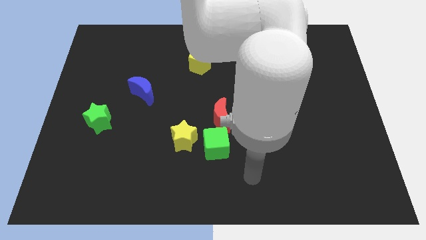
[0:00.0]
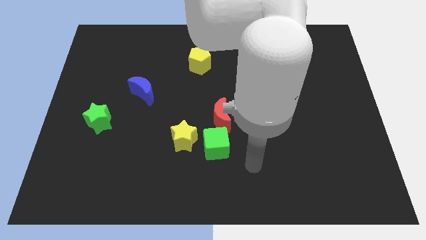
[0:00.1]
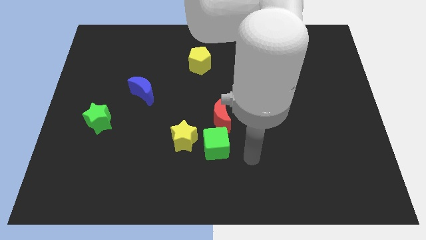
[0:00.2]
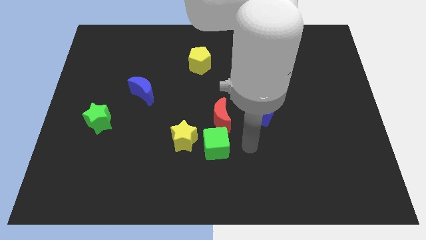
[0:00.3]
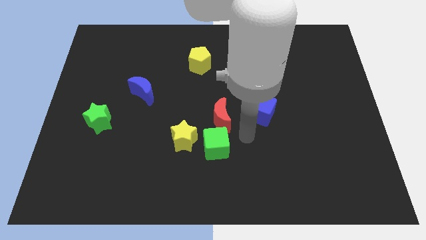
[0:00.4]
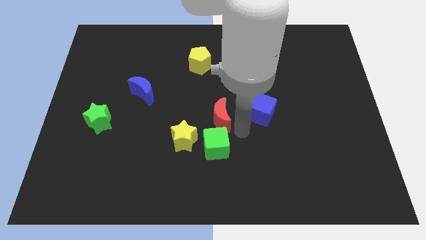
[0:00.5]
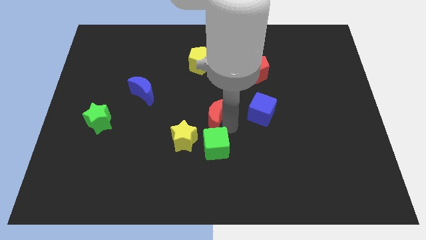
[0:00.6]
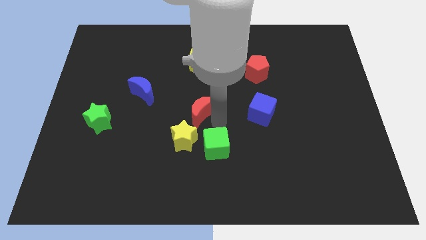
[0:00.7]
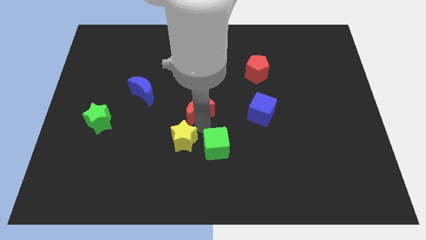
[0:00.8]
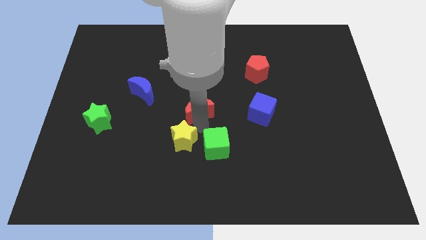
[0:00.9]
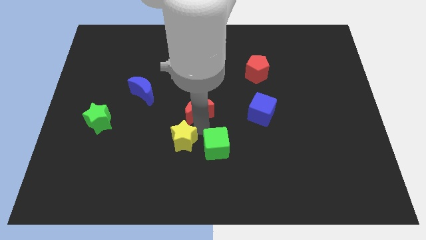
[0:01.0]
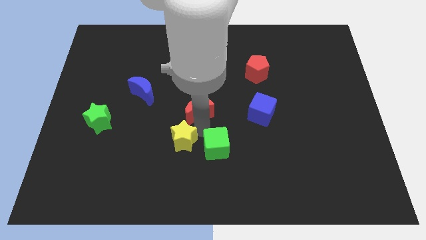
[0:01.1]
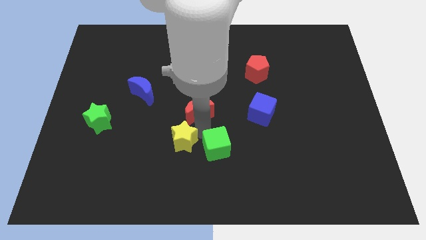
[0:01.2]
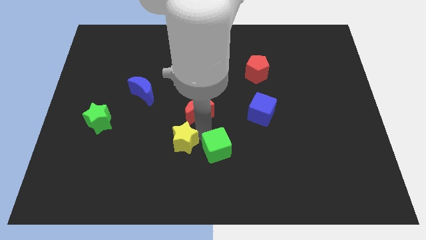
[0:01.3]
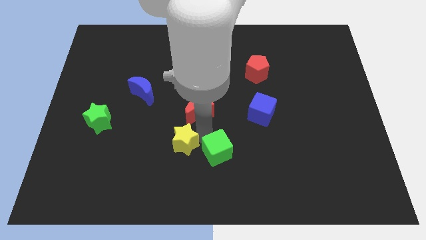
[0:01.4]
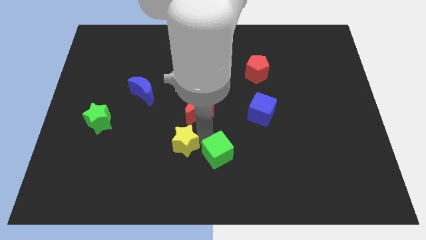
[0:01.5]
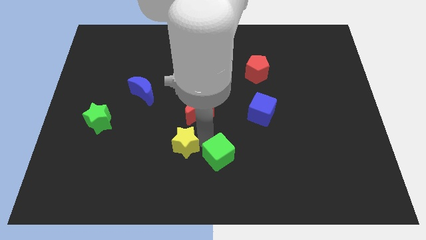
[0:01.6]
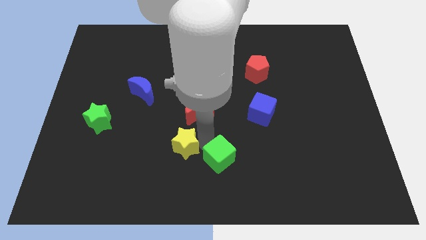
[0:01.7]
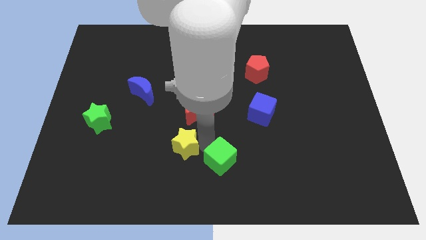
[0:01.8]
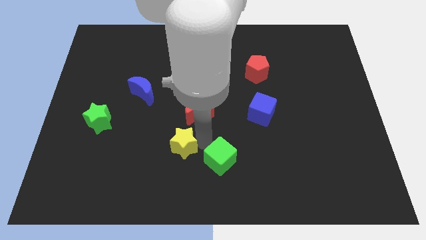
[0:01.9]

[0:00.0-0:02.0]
move the green cube away from the yellow star and red moon

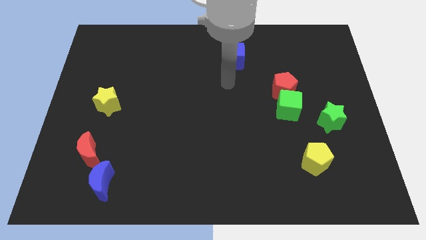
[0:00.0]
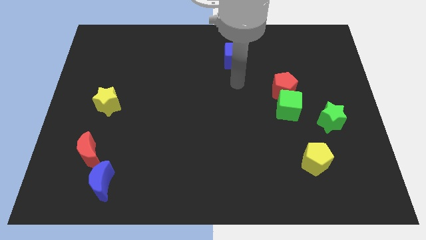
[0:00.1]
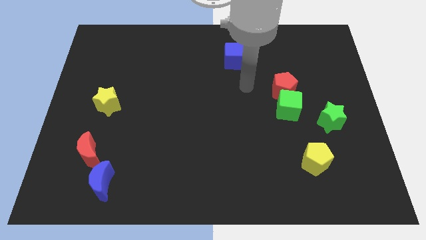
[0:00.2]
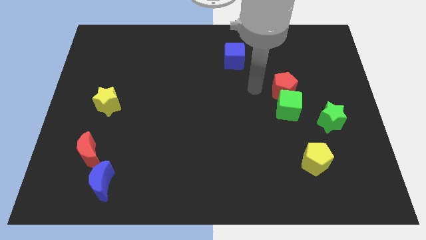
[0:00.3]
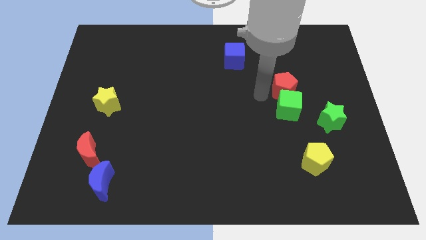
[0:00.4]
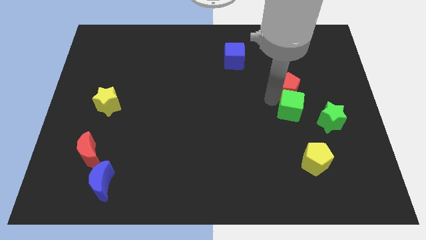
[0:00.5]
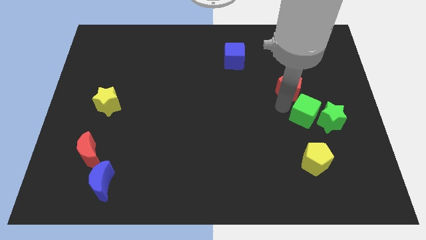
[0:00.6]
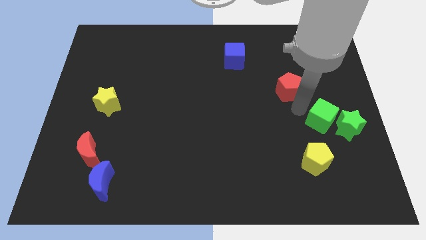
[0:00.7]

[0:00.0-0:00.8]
pull the red pentagon apart from the green cube

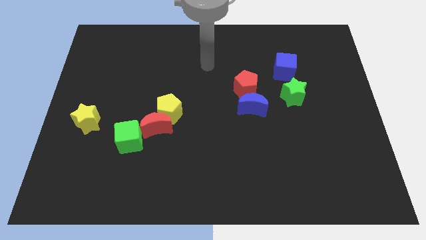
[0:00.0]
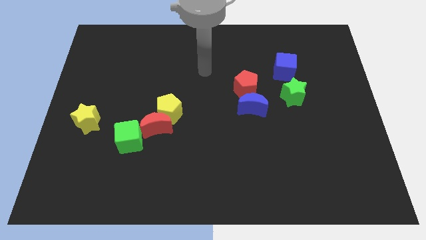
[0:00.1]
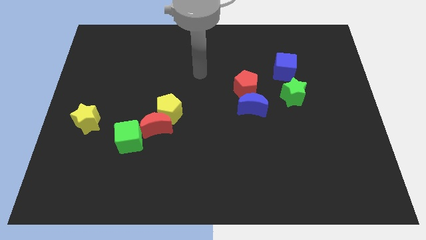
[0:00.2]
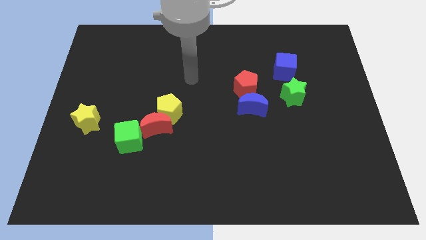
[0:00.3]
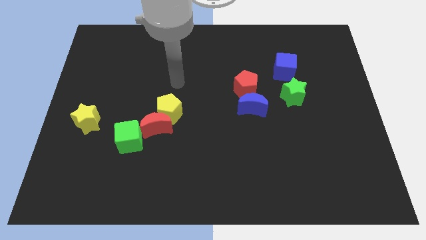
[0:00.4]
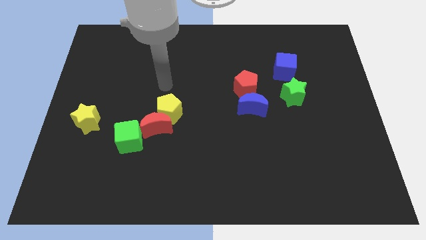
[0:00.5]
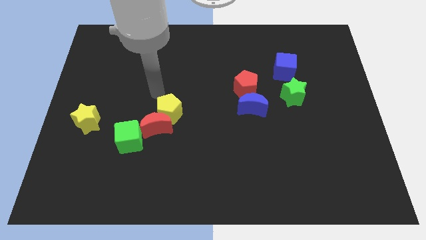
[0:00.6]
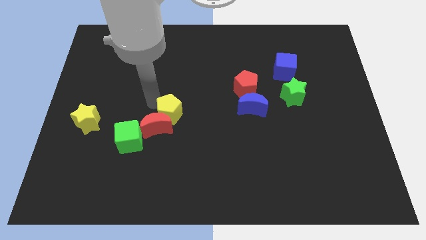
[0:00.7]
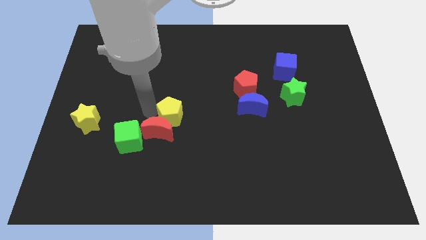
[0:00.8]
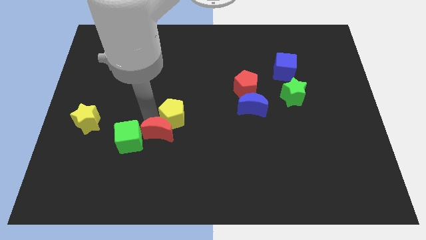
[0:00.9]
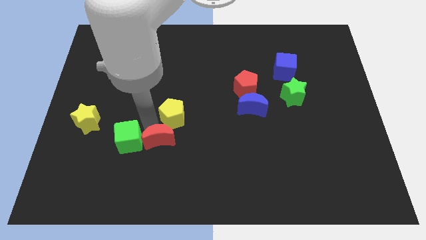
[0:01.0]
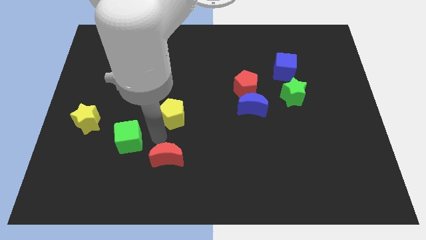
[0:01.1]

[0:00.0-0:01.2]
move the yellow pentagon away from the red moon

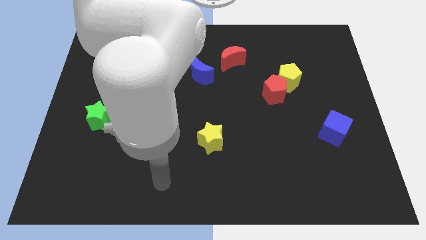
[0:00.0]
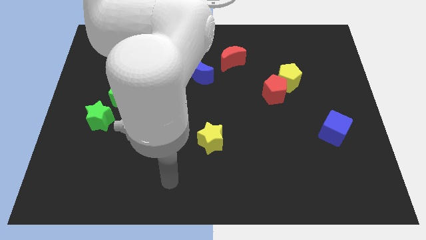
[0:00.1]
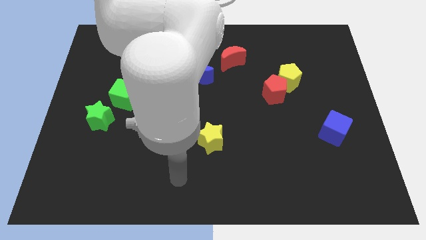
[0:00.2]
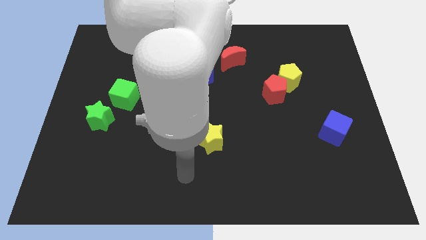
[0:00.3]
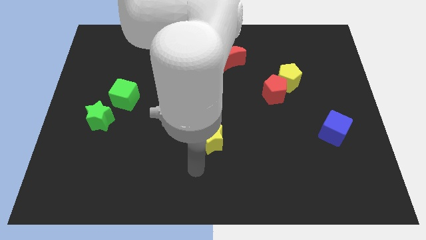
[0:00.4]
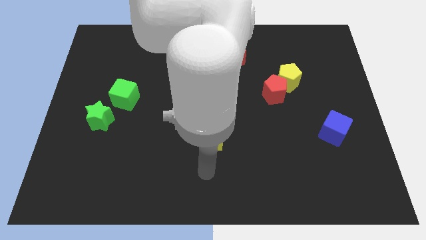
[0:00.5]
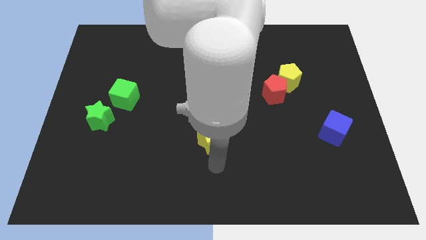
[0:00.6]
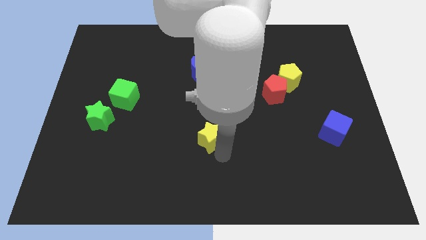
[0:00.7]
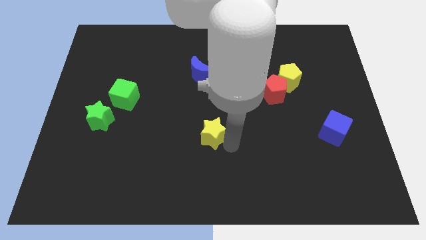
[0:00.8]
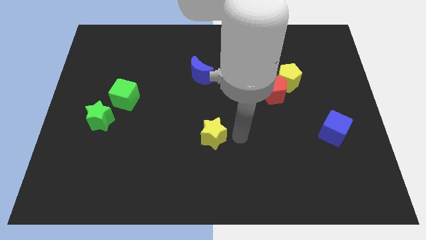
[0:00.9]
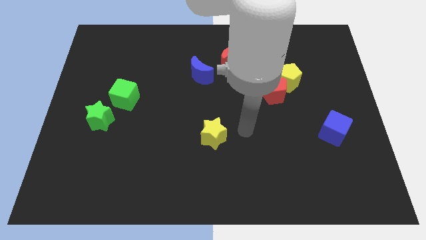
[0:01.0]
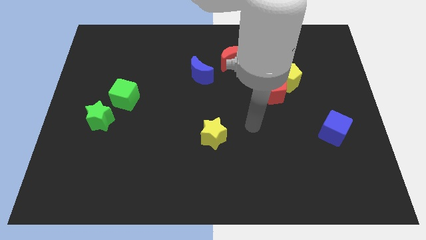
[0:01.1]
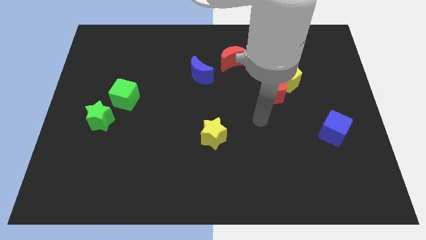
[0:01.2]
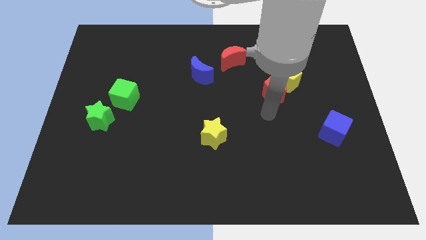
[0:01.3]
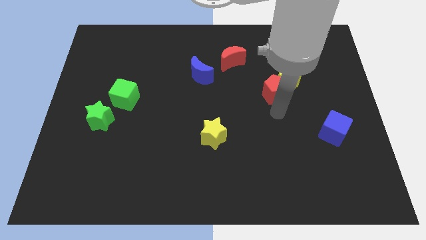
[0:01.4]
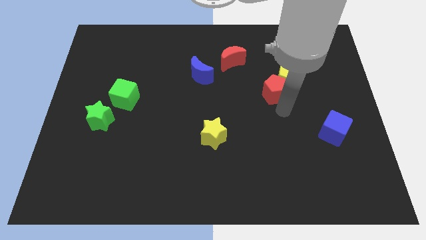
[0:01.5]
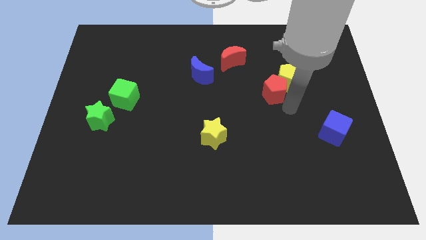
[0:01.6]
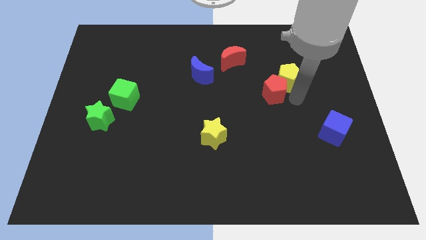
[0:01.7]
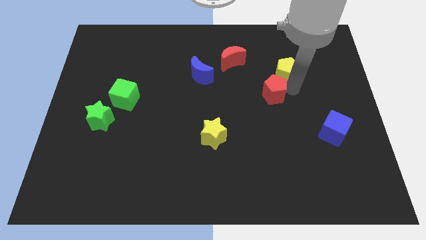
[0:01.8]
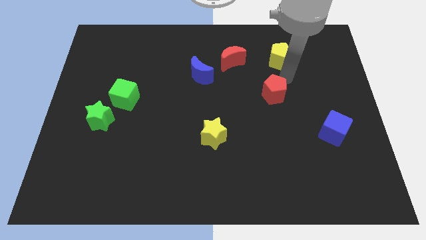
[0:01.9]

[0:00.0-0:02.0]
pull the red pentagon apart from the yellow pentagon

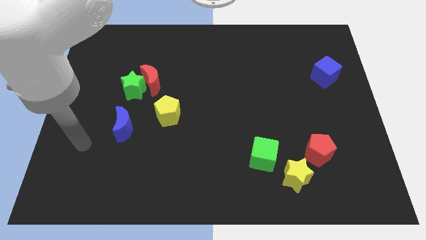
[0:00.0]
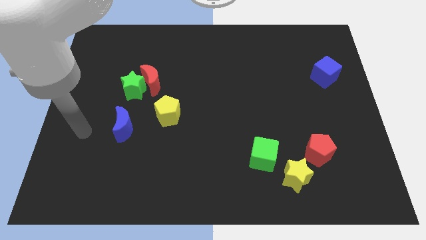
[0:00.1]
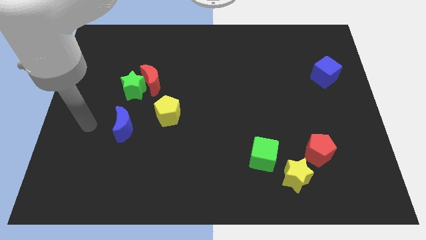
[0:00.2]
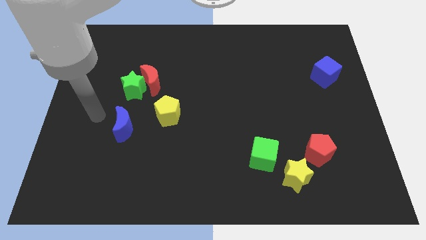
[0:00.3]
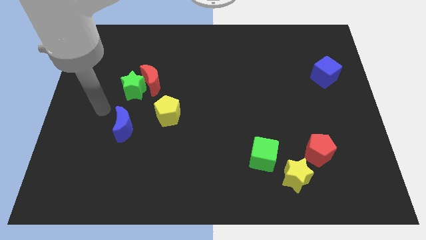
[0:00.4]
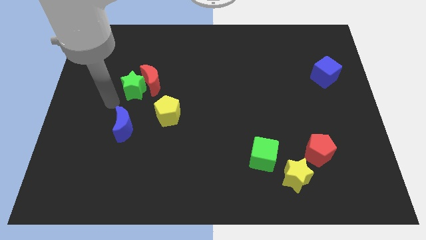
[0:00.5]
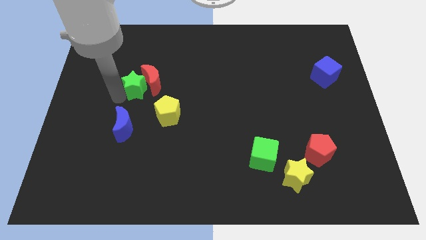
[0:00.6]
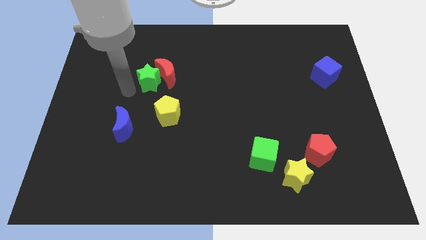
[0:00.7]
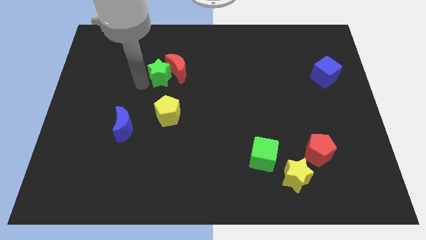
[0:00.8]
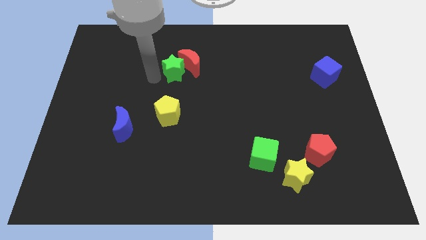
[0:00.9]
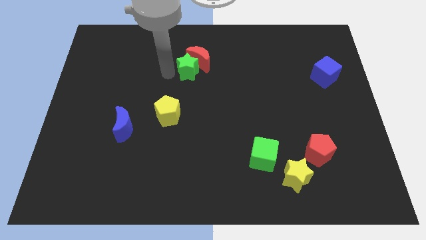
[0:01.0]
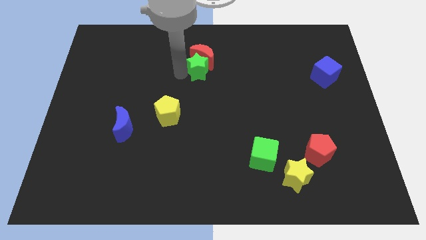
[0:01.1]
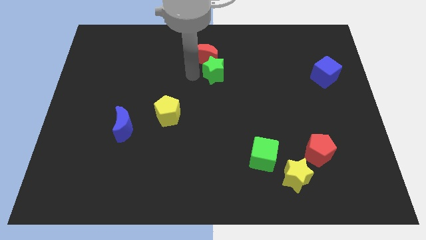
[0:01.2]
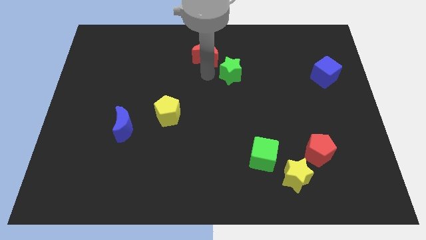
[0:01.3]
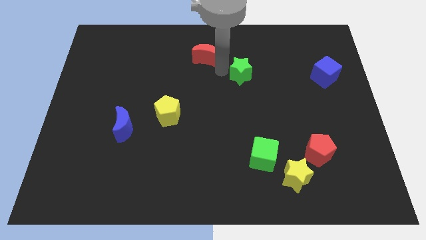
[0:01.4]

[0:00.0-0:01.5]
separate the red moon from the green star

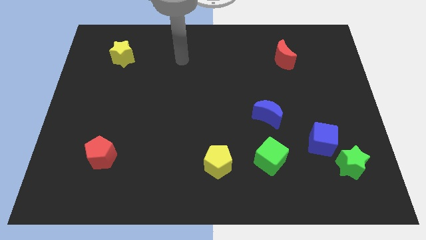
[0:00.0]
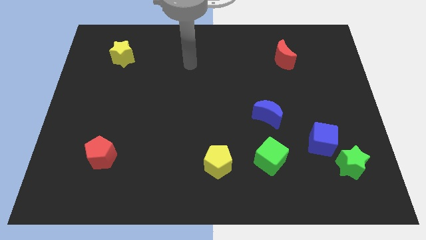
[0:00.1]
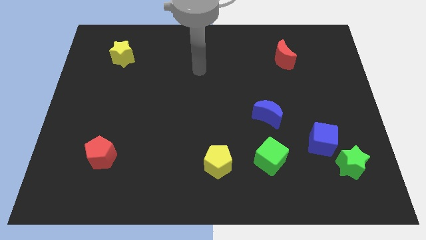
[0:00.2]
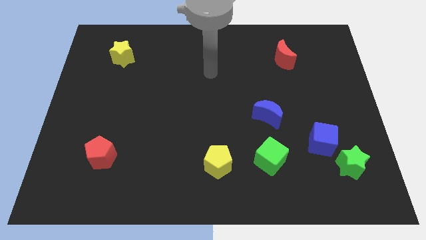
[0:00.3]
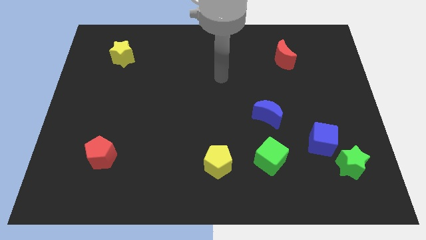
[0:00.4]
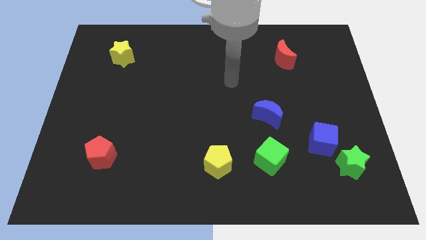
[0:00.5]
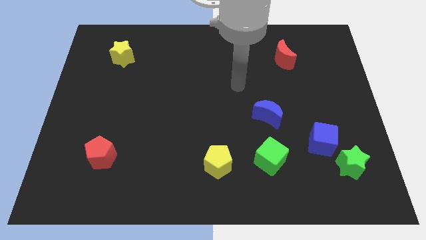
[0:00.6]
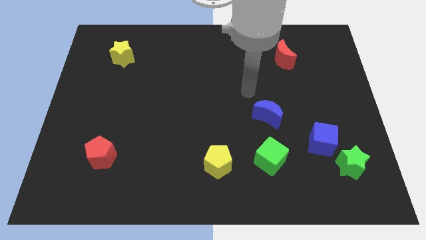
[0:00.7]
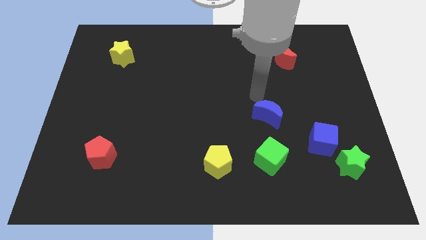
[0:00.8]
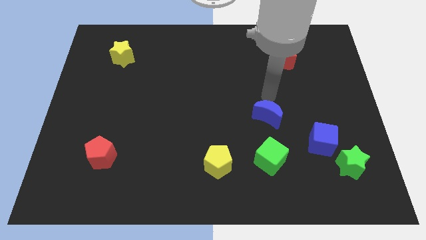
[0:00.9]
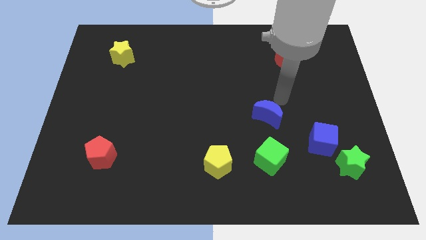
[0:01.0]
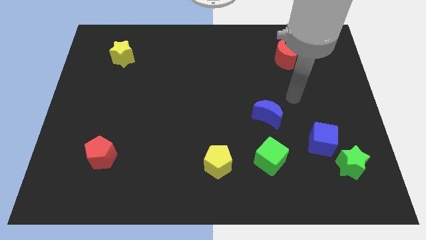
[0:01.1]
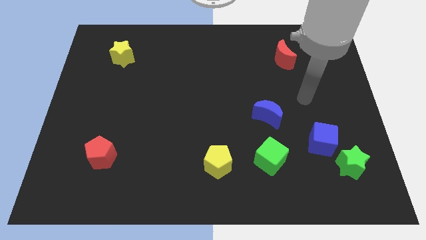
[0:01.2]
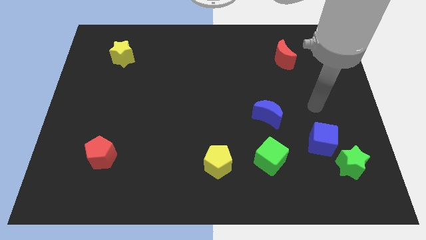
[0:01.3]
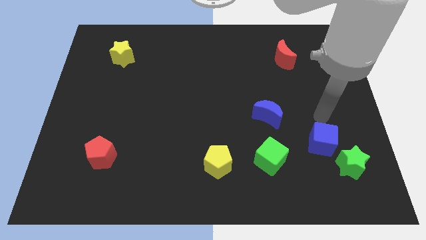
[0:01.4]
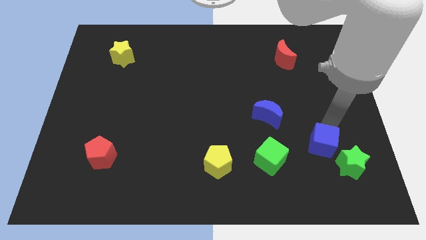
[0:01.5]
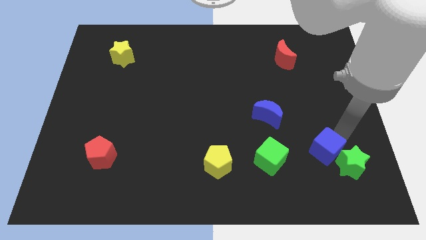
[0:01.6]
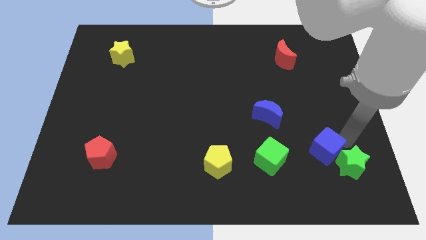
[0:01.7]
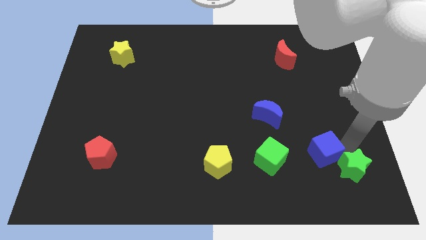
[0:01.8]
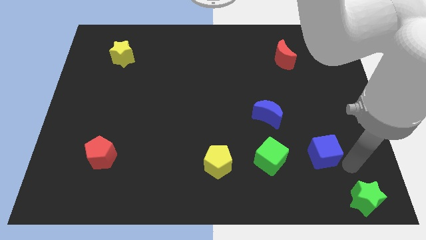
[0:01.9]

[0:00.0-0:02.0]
move the blue cube away from the green star
